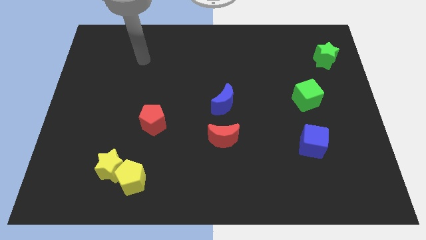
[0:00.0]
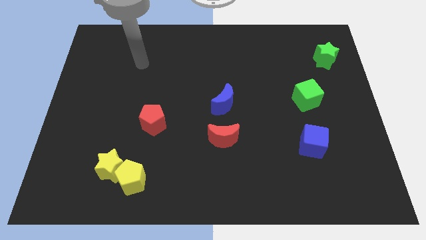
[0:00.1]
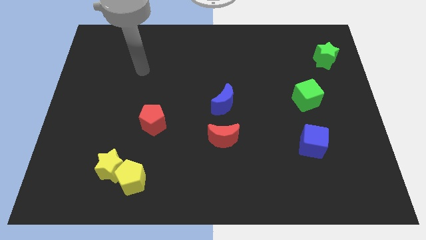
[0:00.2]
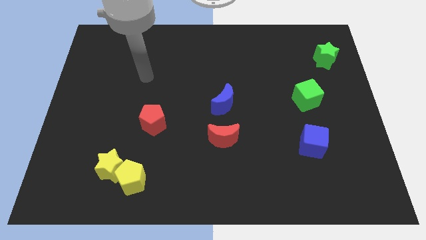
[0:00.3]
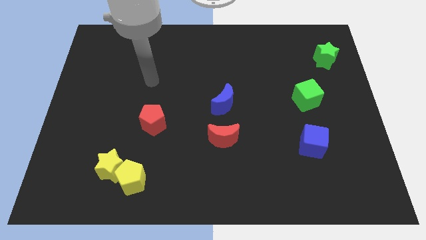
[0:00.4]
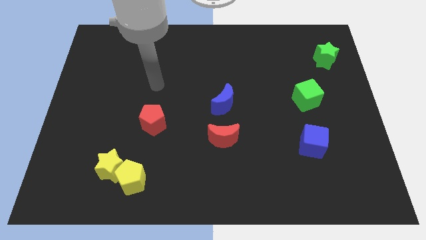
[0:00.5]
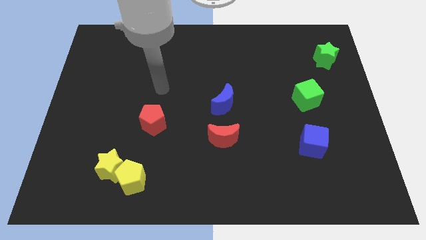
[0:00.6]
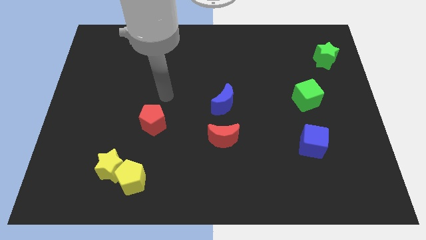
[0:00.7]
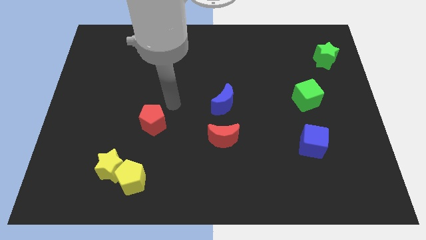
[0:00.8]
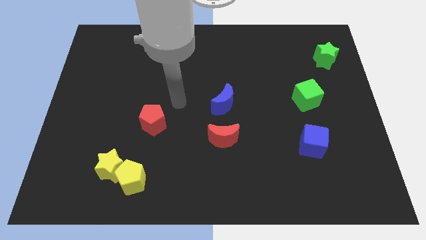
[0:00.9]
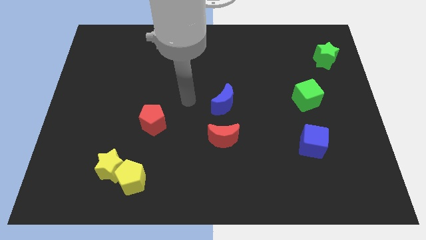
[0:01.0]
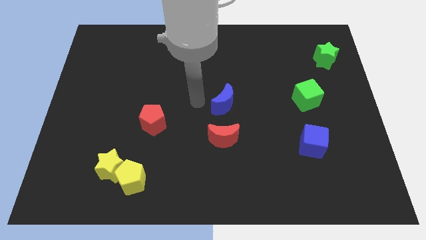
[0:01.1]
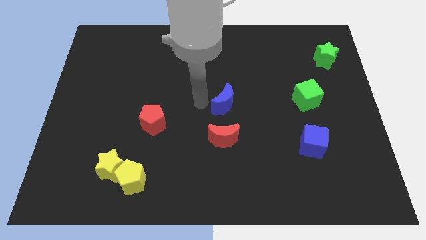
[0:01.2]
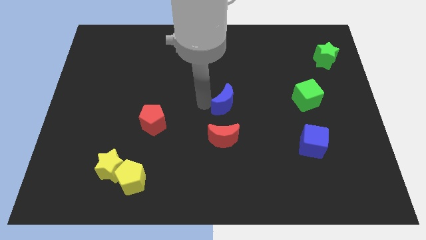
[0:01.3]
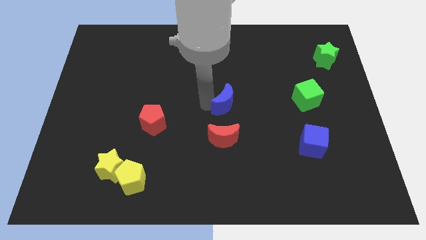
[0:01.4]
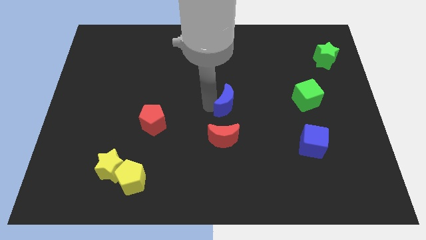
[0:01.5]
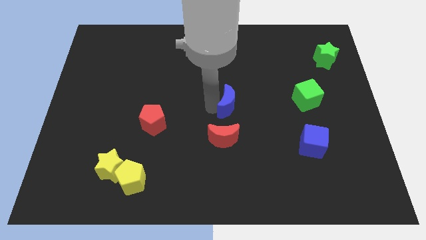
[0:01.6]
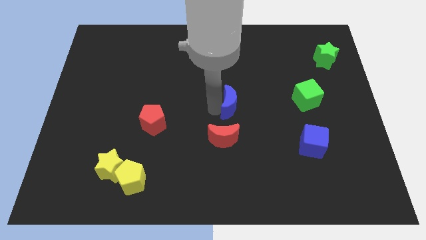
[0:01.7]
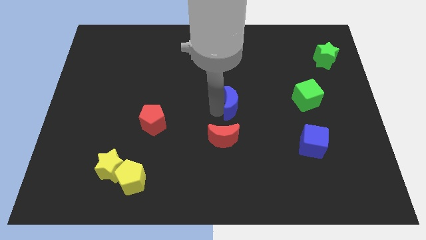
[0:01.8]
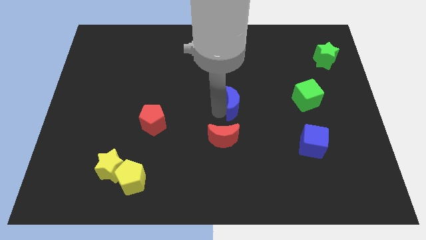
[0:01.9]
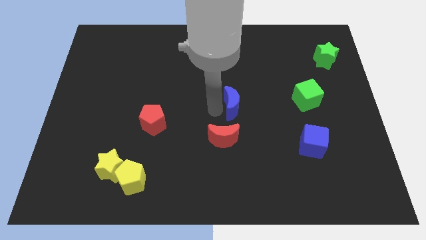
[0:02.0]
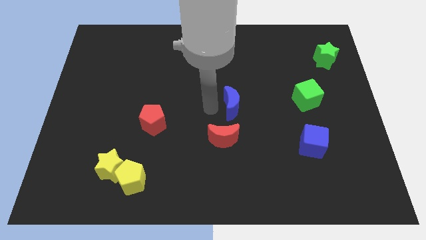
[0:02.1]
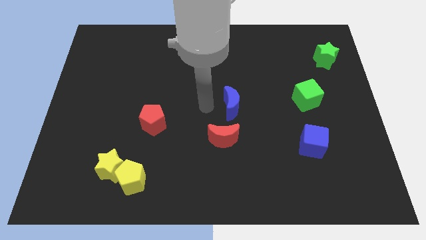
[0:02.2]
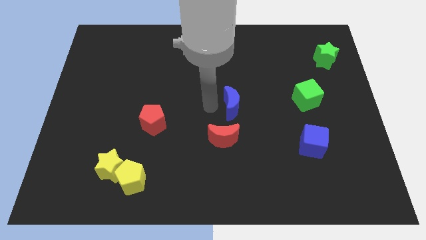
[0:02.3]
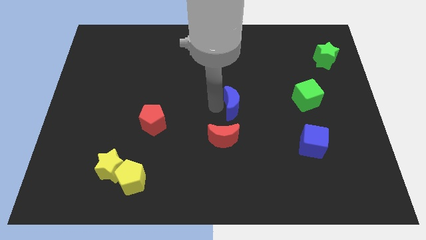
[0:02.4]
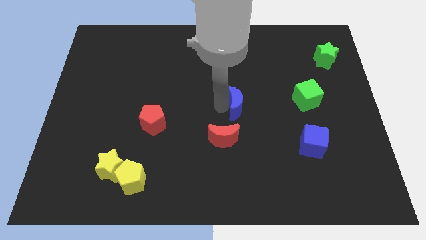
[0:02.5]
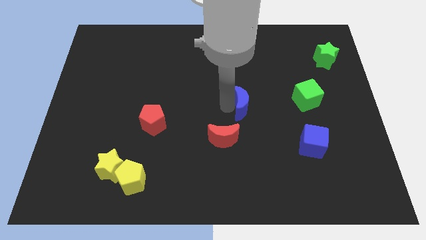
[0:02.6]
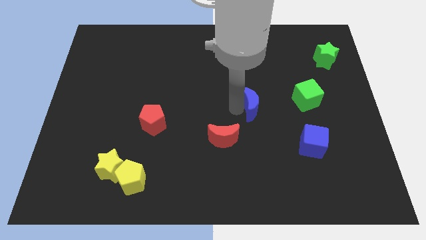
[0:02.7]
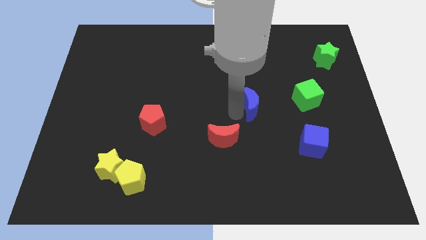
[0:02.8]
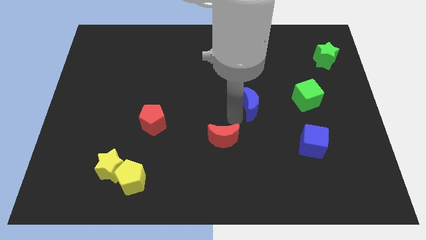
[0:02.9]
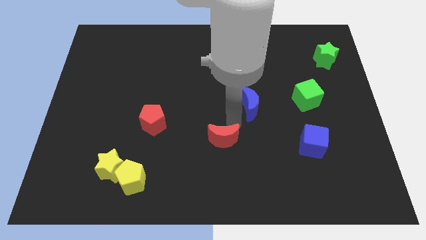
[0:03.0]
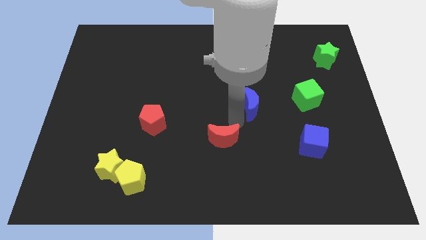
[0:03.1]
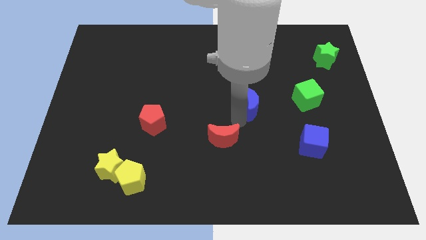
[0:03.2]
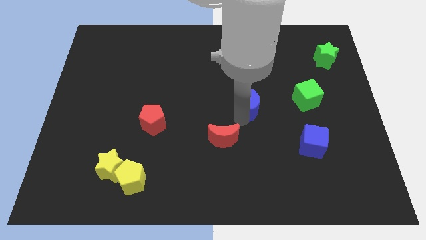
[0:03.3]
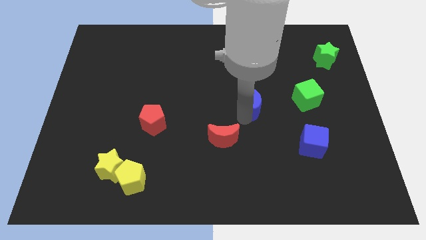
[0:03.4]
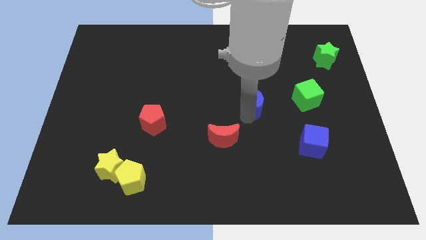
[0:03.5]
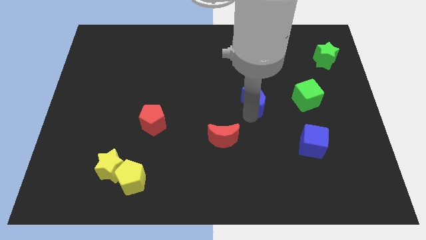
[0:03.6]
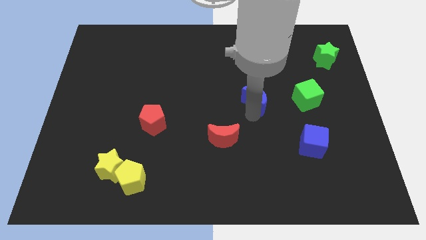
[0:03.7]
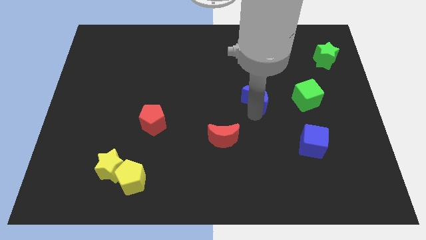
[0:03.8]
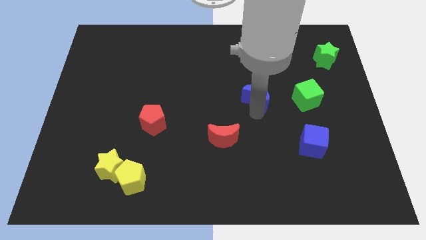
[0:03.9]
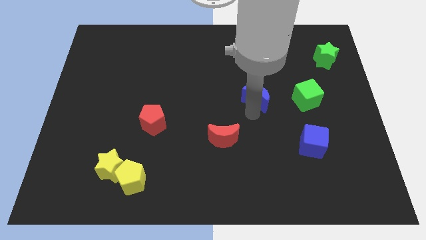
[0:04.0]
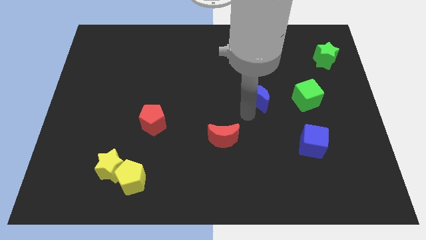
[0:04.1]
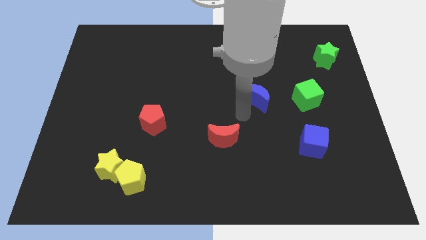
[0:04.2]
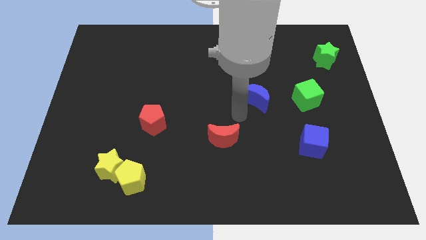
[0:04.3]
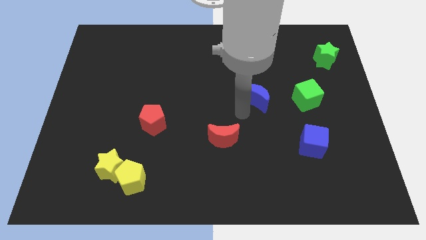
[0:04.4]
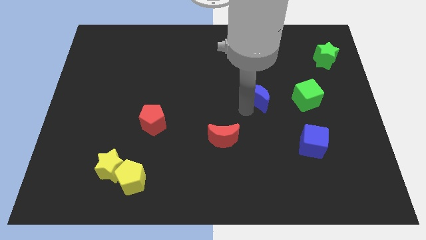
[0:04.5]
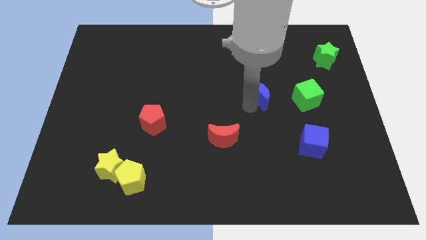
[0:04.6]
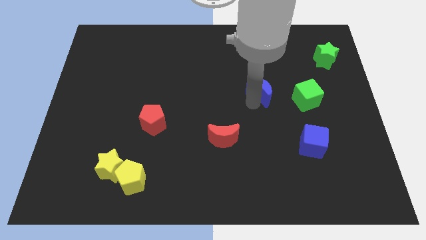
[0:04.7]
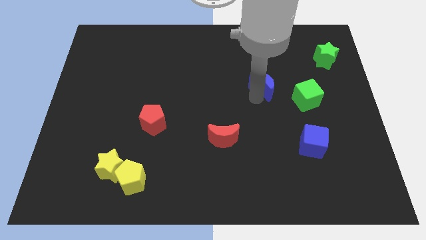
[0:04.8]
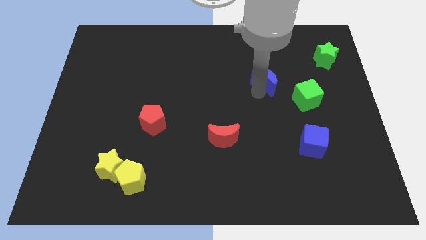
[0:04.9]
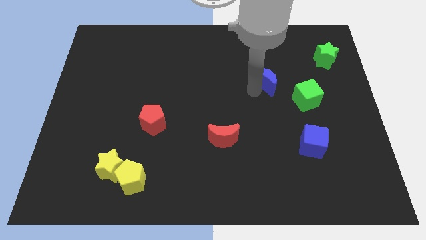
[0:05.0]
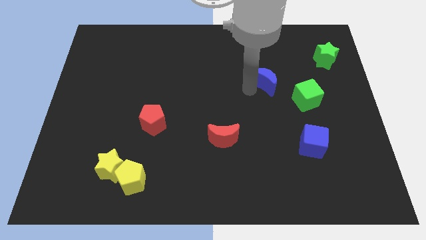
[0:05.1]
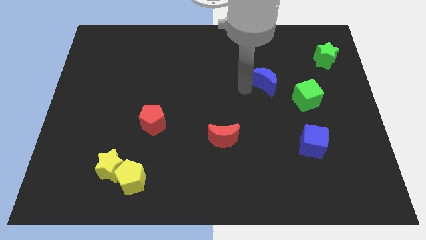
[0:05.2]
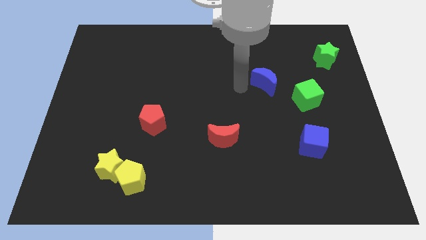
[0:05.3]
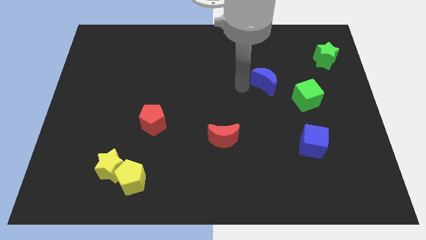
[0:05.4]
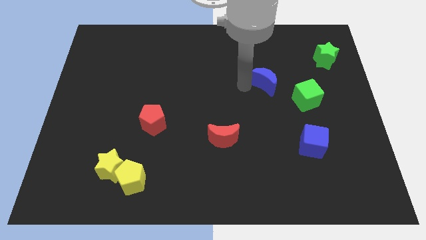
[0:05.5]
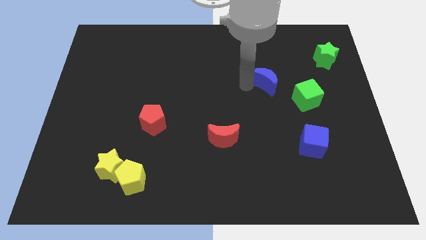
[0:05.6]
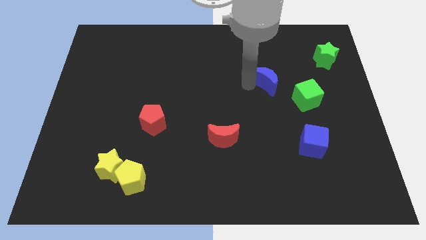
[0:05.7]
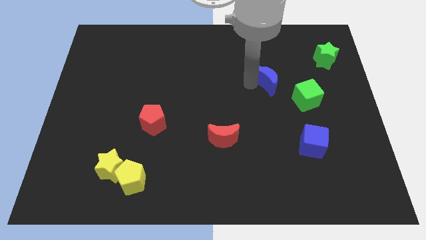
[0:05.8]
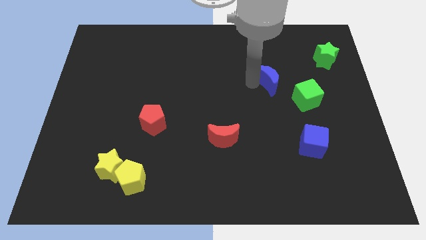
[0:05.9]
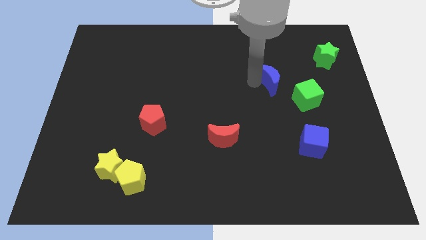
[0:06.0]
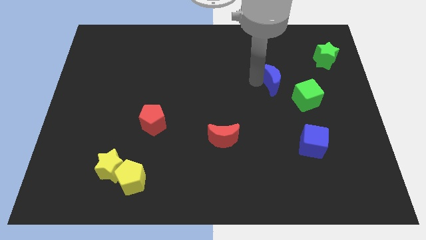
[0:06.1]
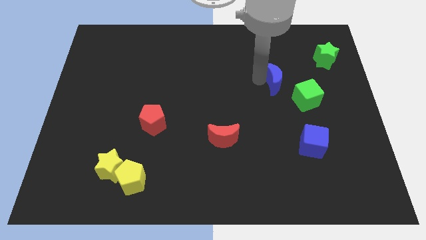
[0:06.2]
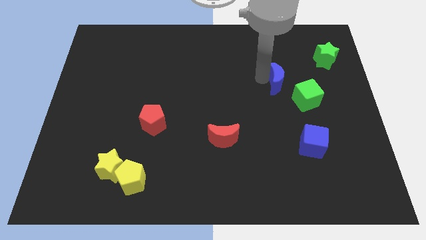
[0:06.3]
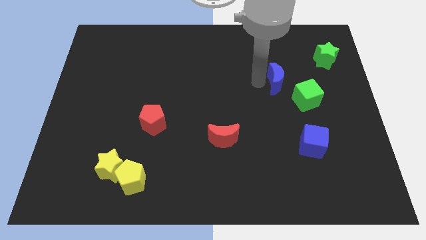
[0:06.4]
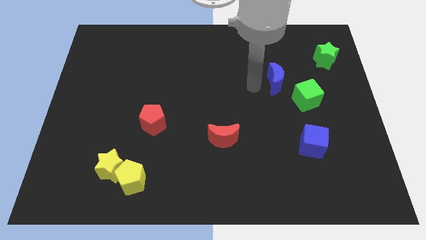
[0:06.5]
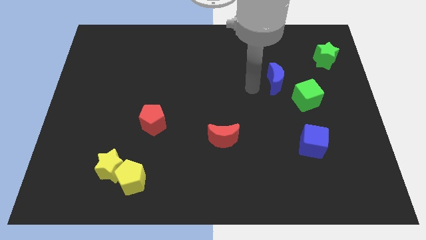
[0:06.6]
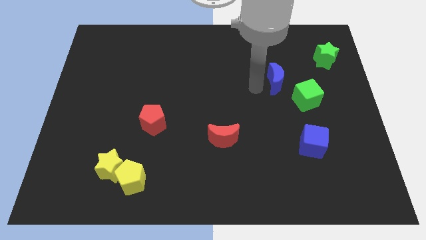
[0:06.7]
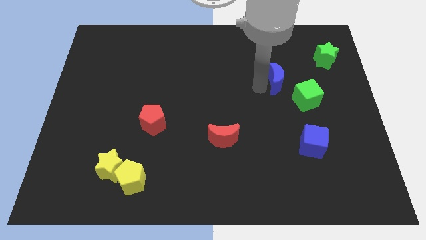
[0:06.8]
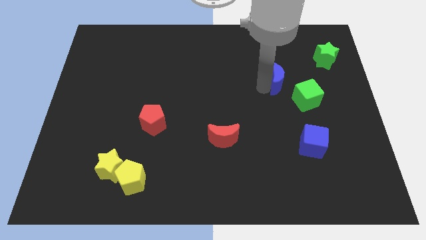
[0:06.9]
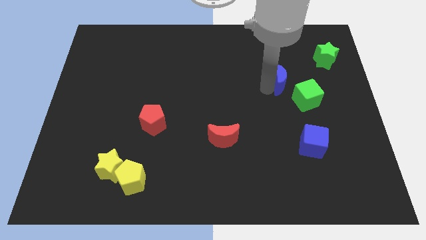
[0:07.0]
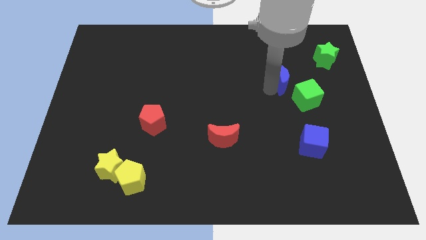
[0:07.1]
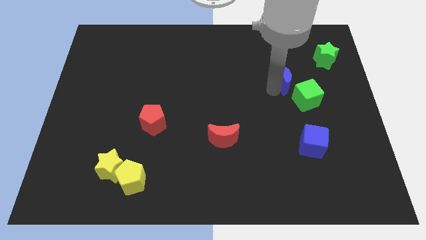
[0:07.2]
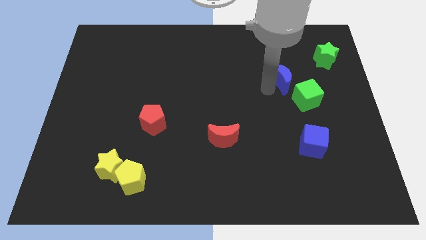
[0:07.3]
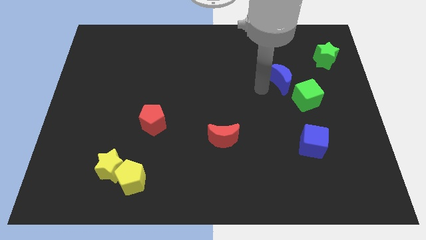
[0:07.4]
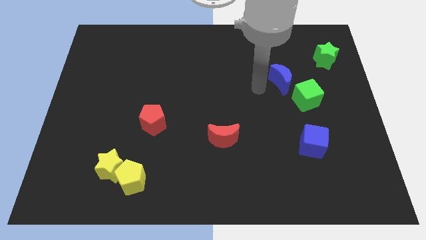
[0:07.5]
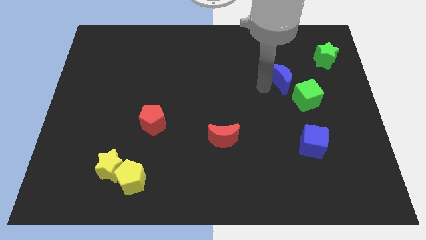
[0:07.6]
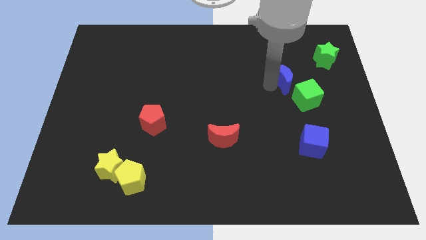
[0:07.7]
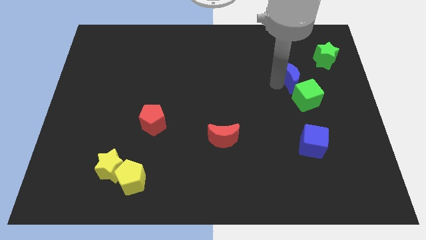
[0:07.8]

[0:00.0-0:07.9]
push the blue moon to the bottom left side of the green star

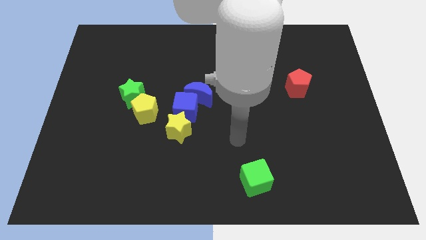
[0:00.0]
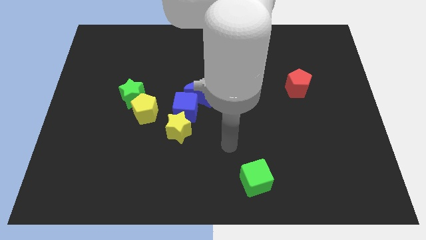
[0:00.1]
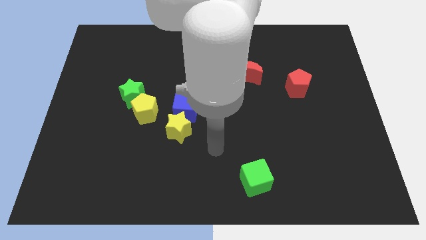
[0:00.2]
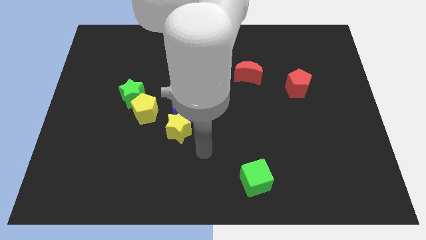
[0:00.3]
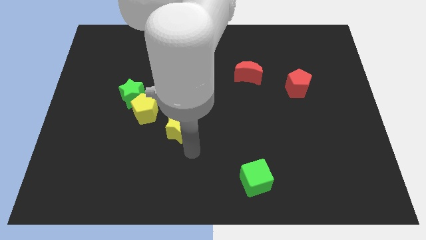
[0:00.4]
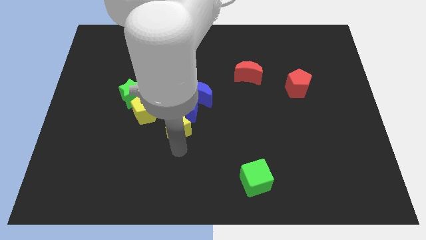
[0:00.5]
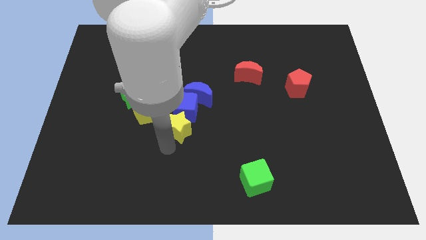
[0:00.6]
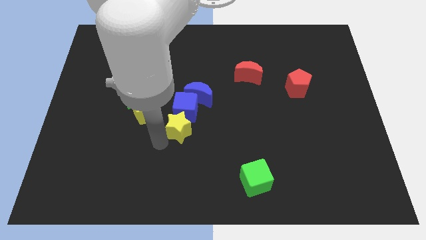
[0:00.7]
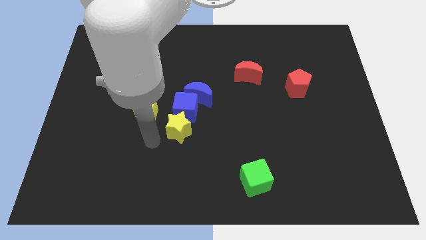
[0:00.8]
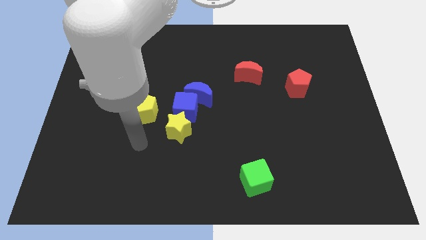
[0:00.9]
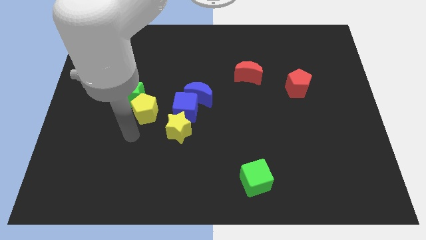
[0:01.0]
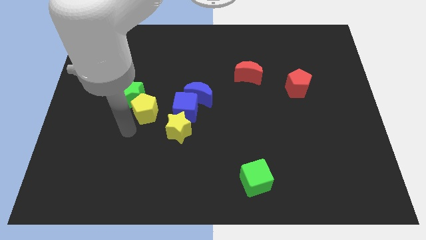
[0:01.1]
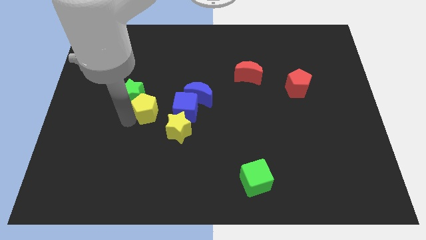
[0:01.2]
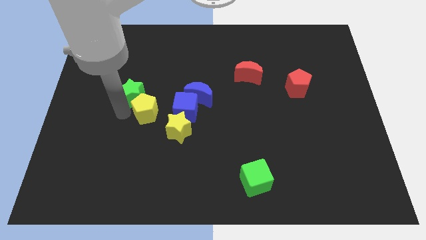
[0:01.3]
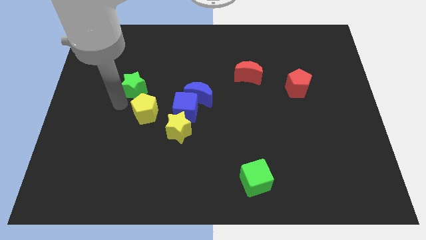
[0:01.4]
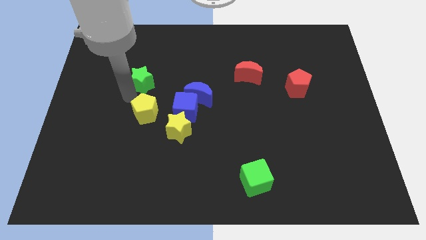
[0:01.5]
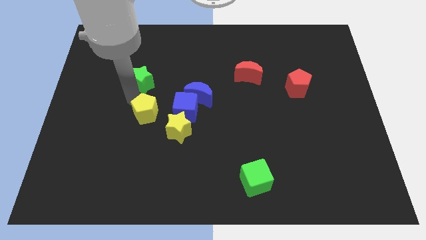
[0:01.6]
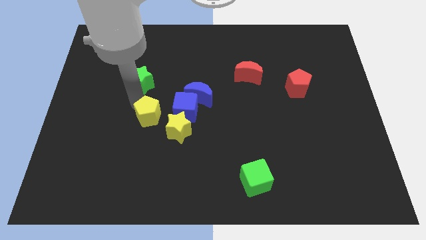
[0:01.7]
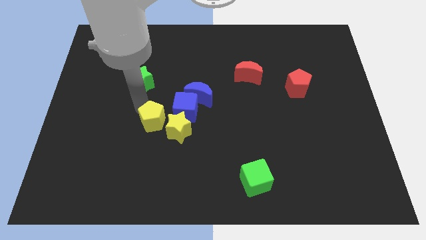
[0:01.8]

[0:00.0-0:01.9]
put the yellow pentagon to the bottom left of the blue cube
